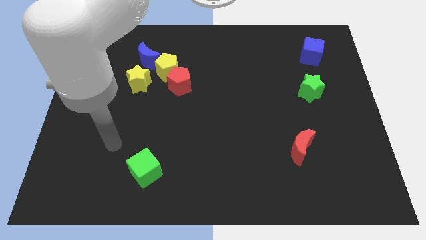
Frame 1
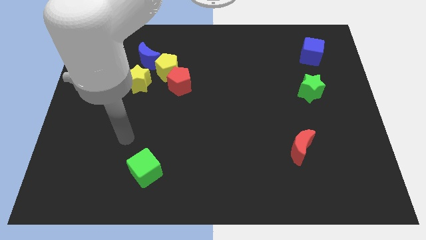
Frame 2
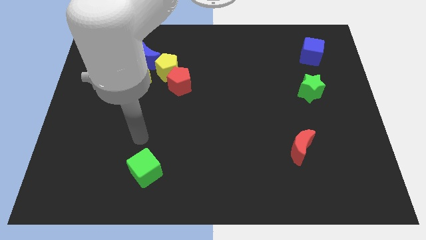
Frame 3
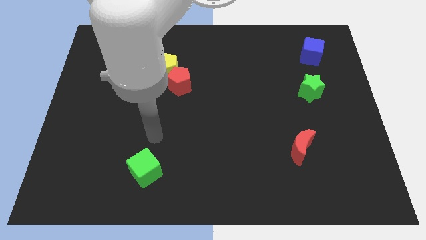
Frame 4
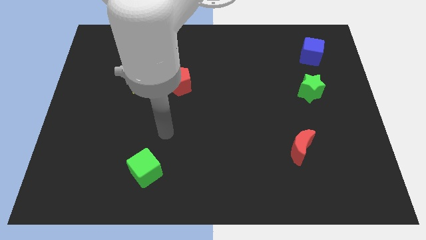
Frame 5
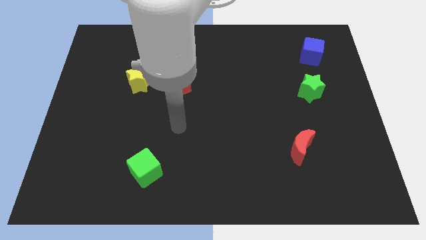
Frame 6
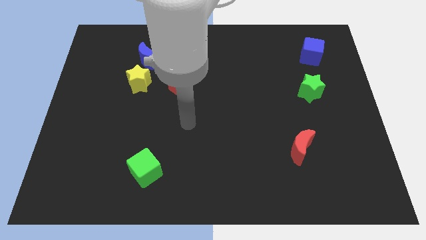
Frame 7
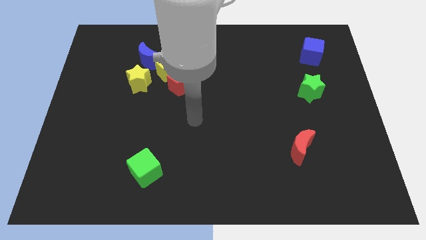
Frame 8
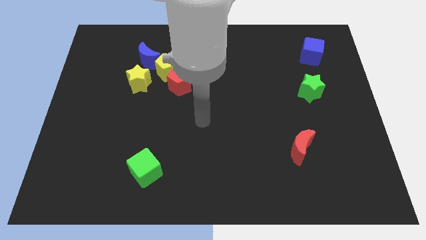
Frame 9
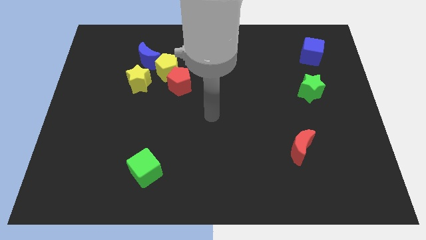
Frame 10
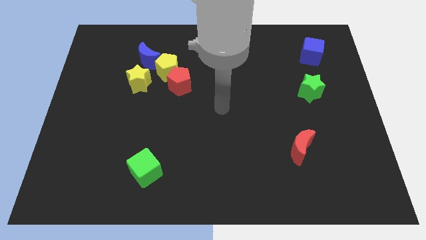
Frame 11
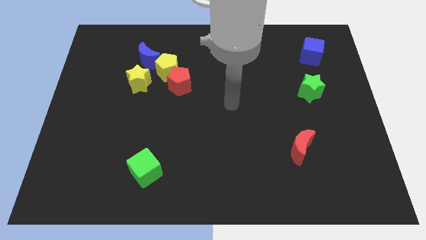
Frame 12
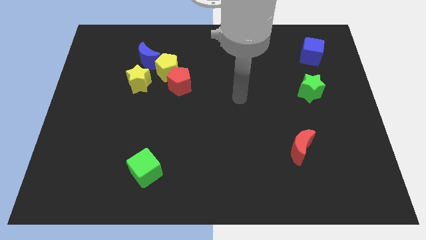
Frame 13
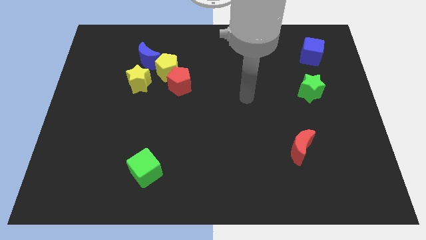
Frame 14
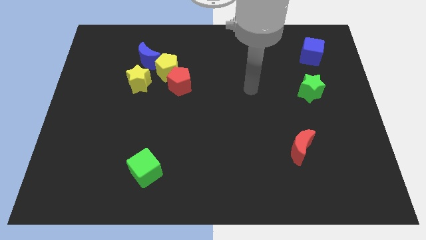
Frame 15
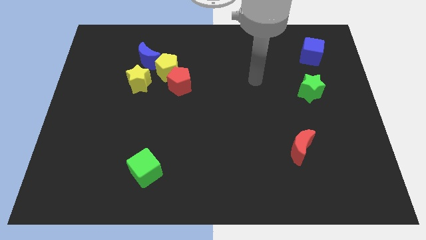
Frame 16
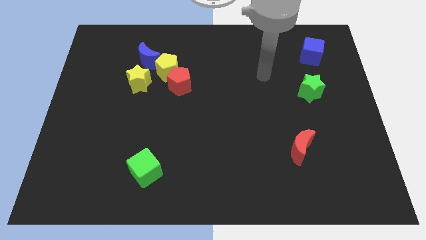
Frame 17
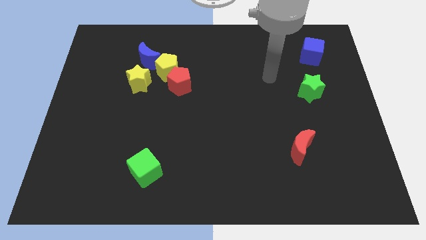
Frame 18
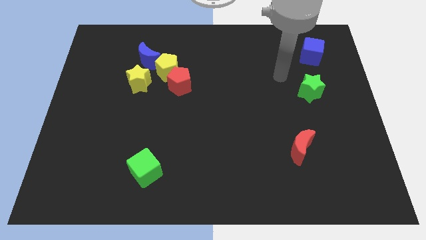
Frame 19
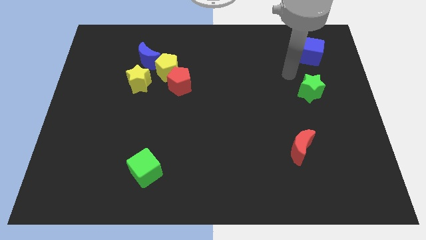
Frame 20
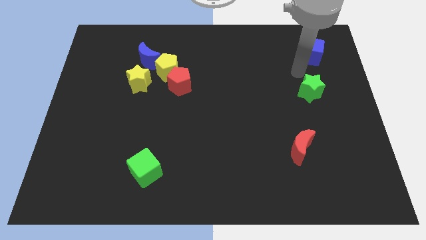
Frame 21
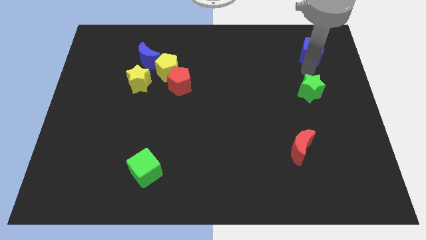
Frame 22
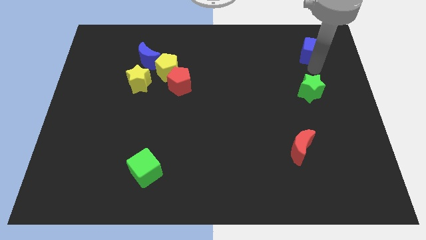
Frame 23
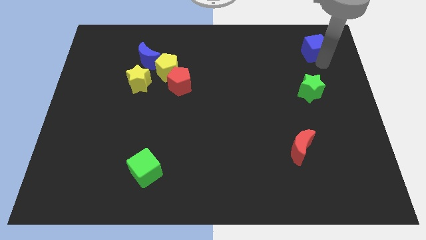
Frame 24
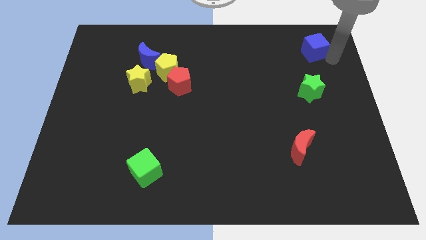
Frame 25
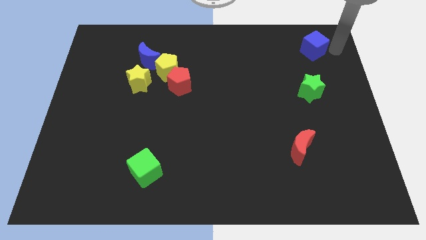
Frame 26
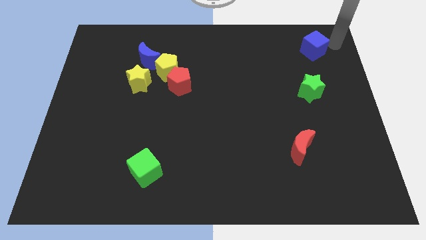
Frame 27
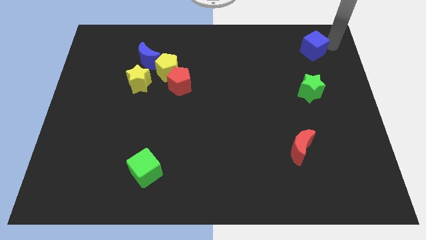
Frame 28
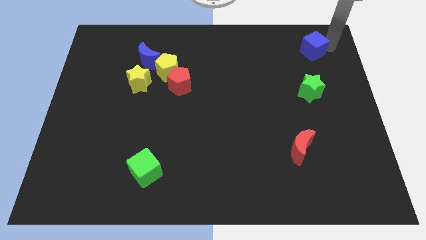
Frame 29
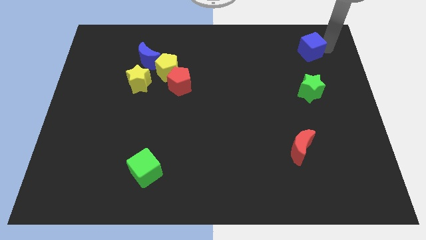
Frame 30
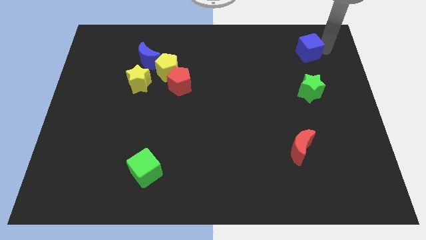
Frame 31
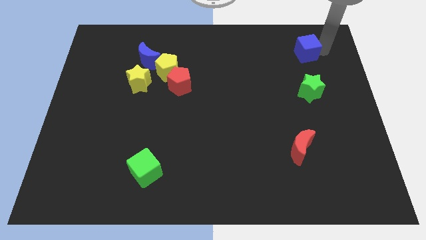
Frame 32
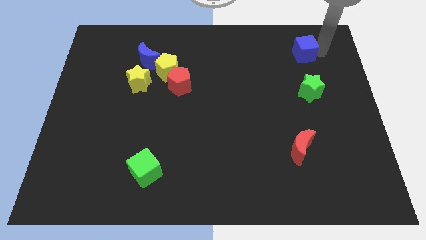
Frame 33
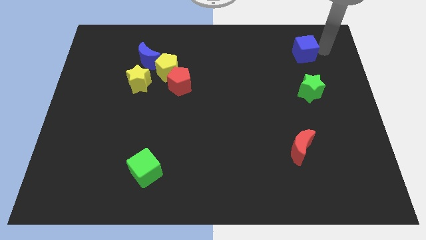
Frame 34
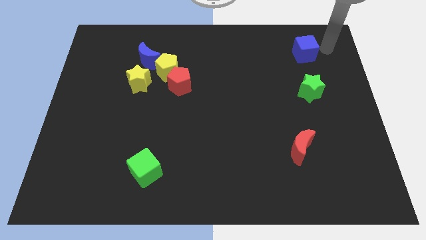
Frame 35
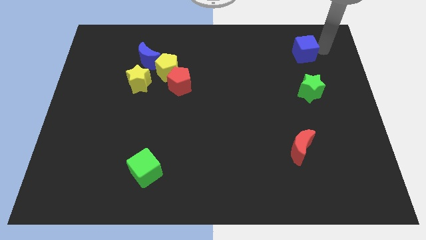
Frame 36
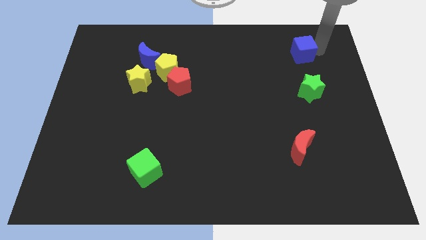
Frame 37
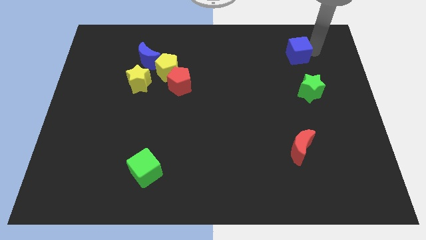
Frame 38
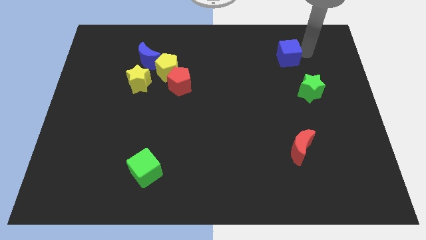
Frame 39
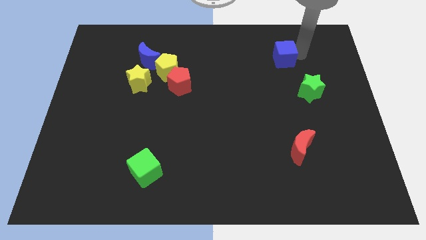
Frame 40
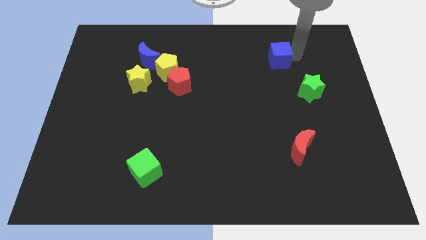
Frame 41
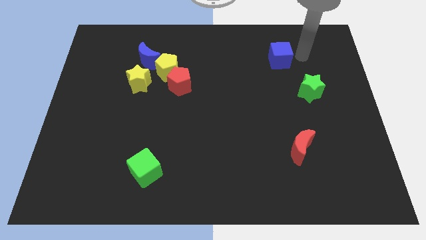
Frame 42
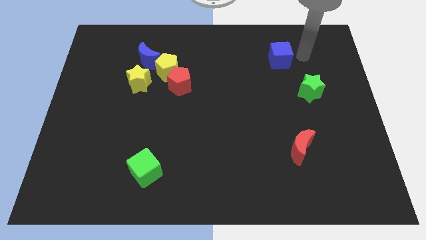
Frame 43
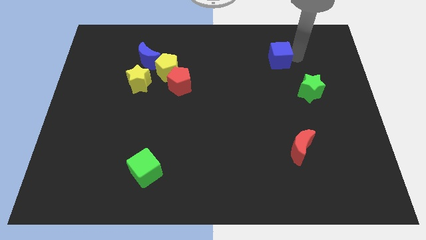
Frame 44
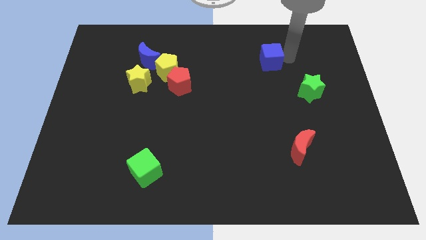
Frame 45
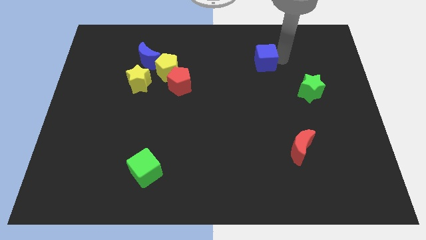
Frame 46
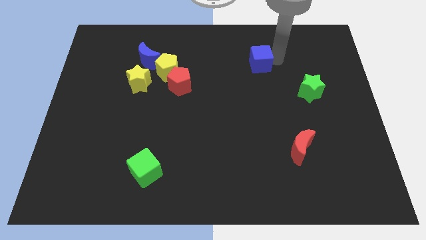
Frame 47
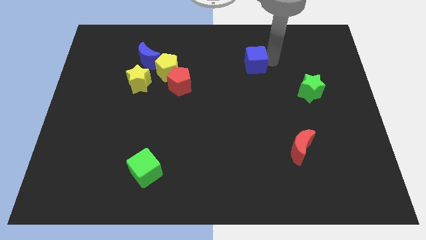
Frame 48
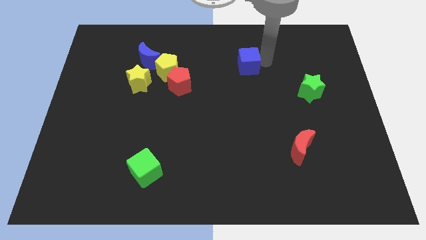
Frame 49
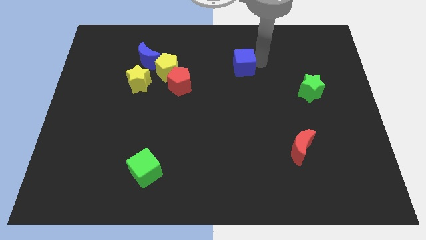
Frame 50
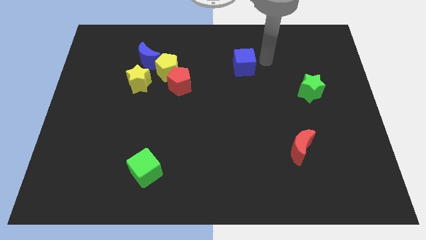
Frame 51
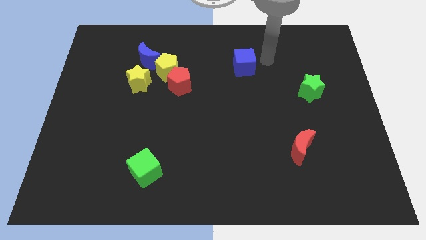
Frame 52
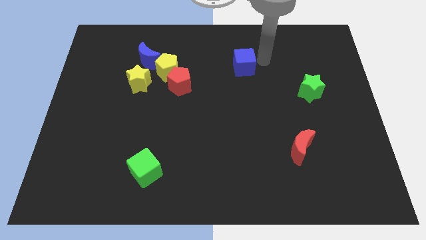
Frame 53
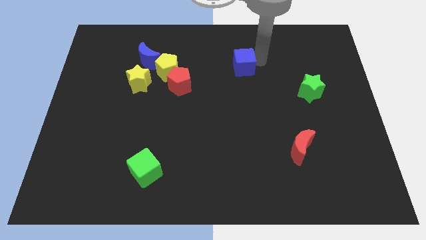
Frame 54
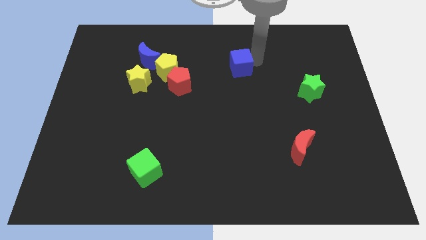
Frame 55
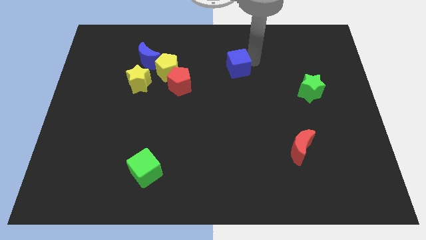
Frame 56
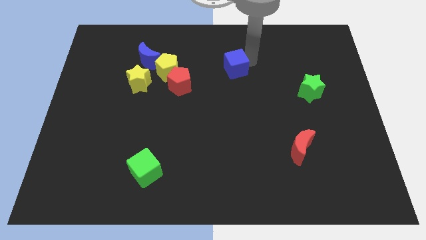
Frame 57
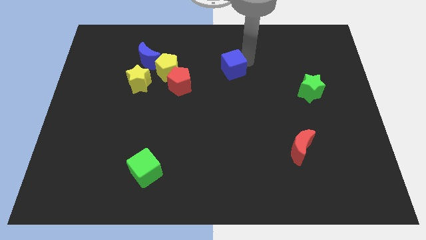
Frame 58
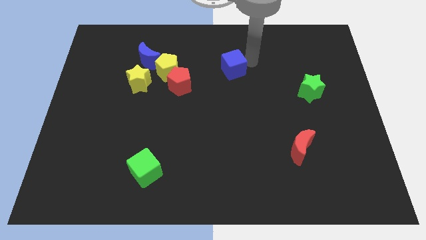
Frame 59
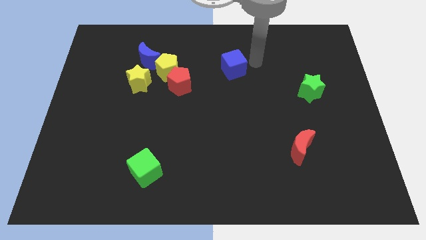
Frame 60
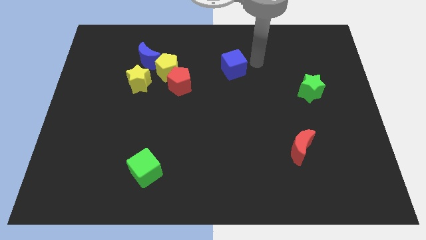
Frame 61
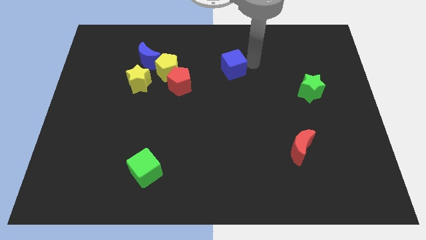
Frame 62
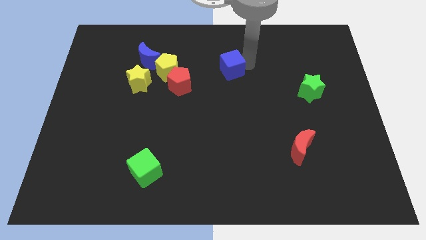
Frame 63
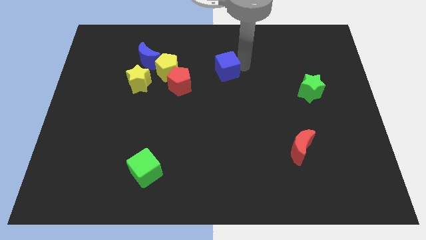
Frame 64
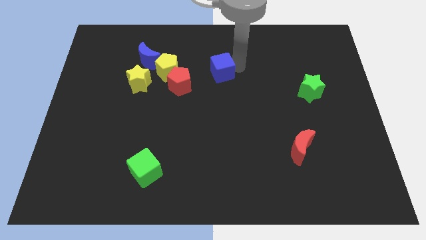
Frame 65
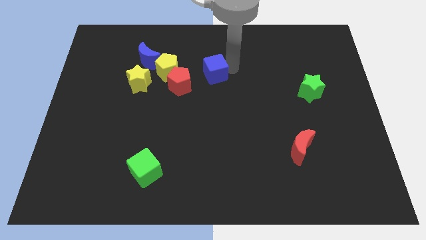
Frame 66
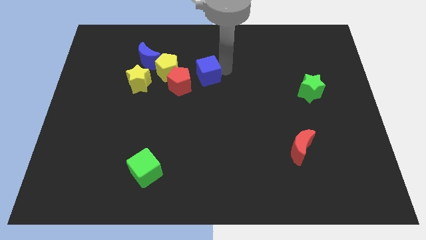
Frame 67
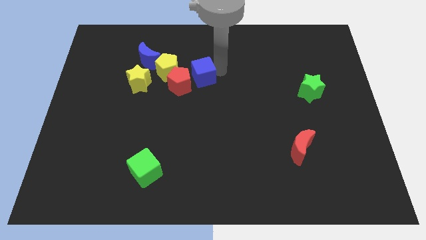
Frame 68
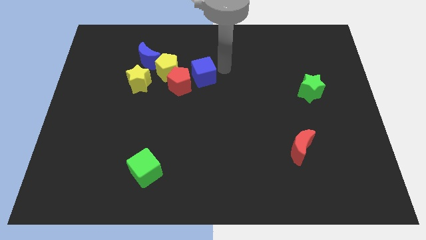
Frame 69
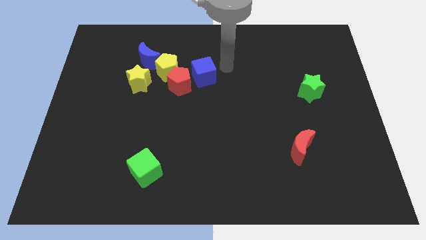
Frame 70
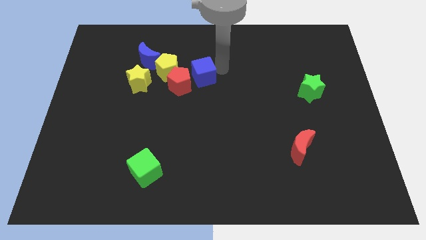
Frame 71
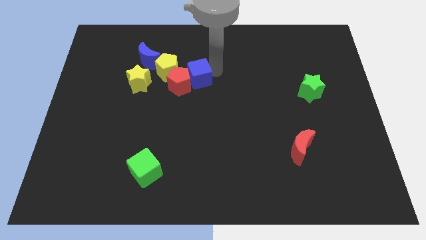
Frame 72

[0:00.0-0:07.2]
push the blue cube towards the red pentagon
